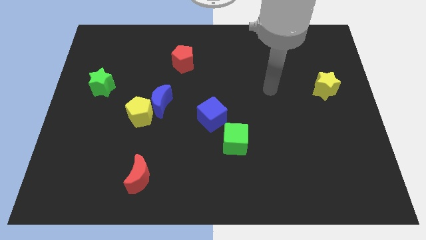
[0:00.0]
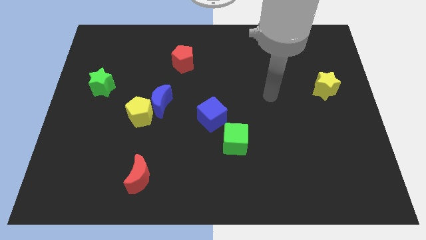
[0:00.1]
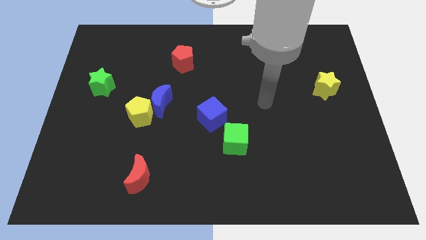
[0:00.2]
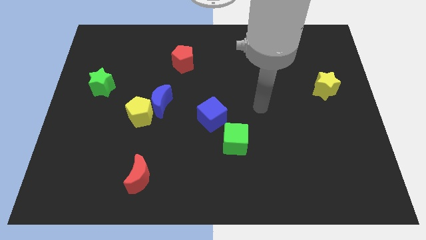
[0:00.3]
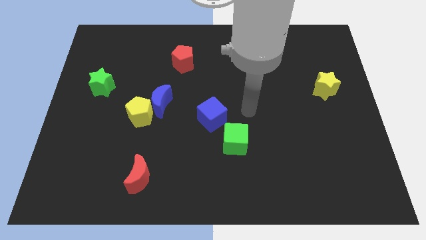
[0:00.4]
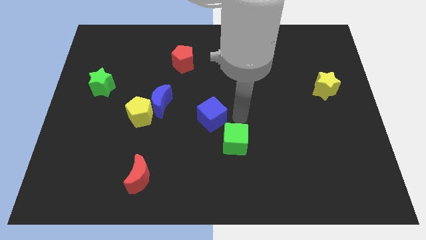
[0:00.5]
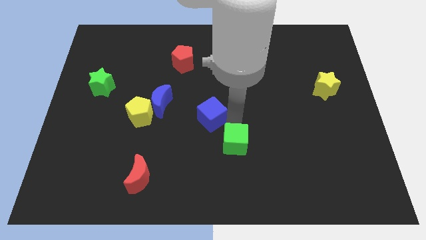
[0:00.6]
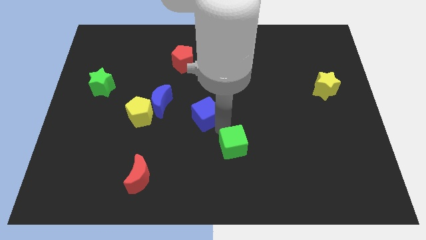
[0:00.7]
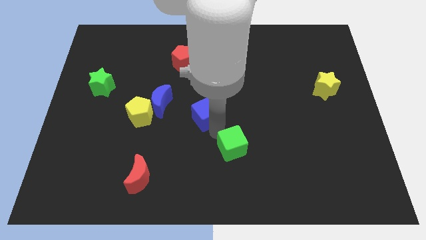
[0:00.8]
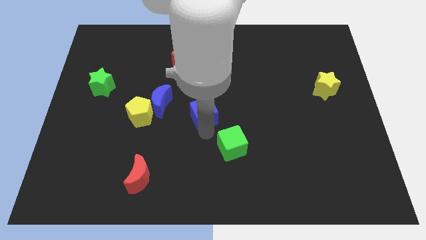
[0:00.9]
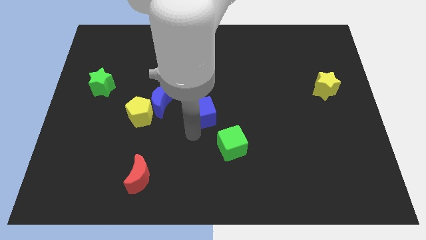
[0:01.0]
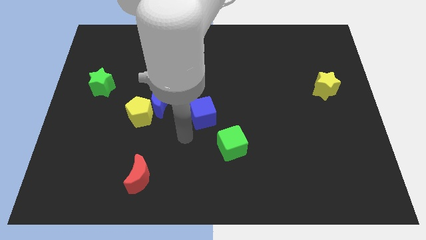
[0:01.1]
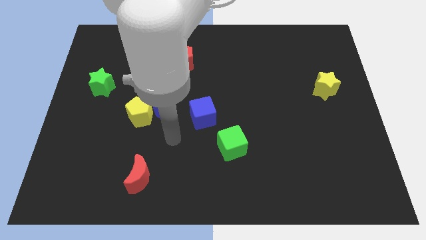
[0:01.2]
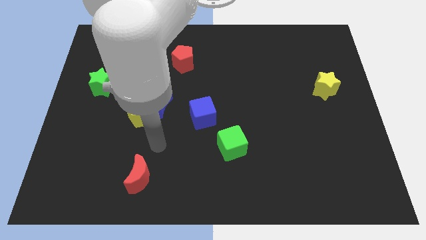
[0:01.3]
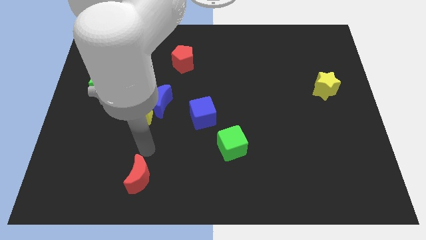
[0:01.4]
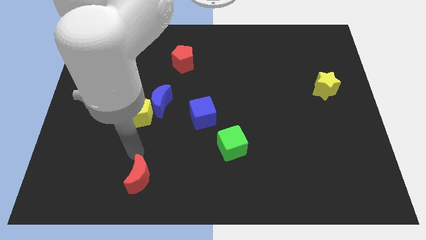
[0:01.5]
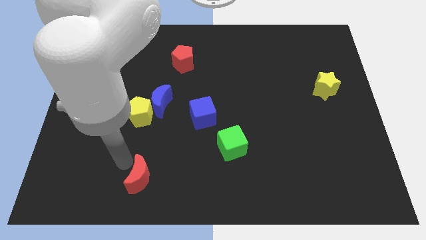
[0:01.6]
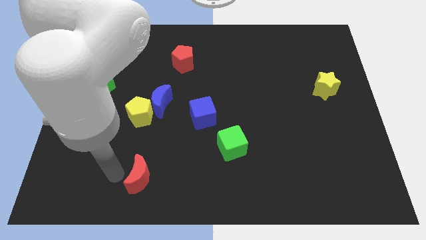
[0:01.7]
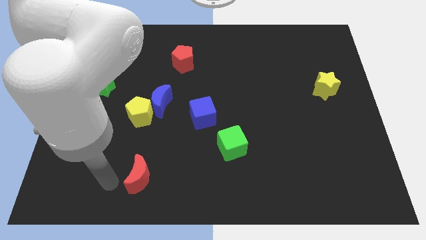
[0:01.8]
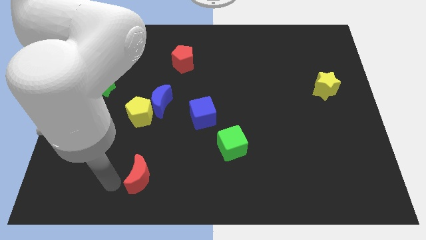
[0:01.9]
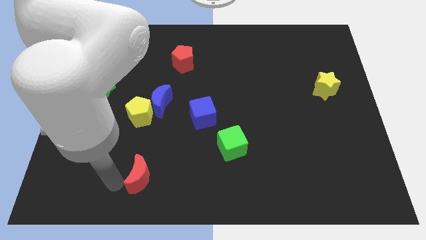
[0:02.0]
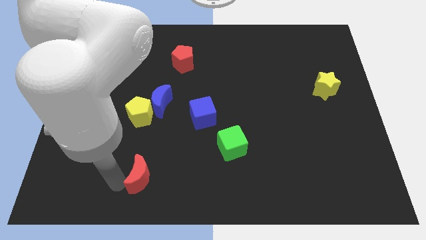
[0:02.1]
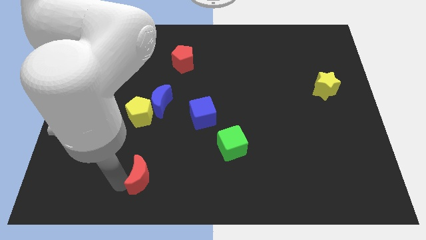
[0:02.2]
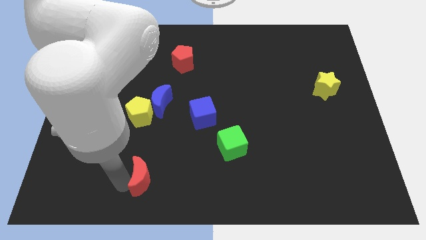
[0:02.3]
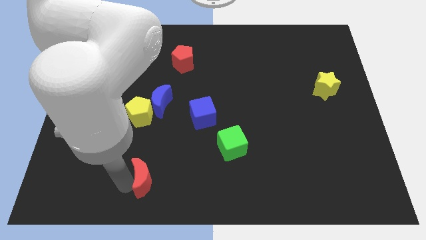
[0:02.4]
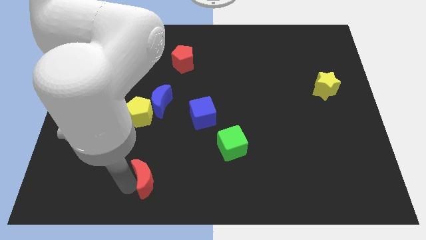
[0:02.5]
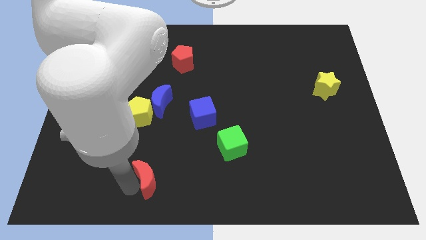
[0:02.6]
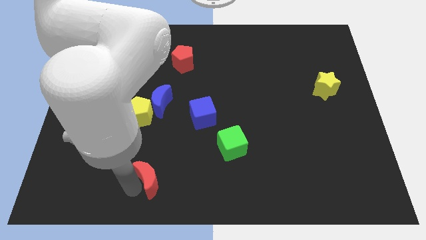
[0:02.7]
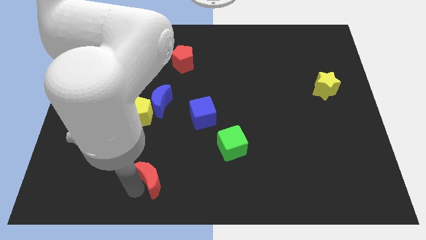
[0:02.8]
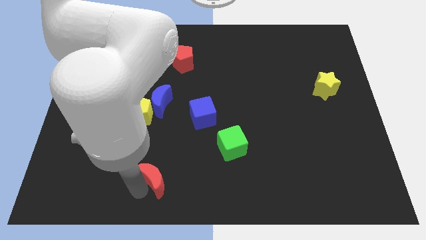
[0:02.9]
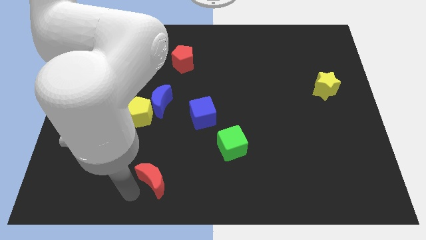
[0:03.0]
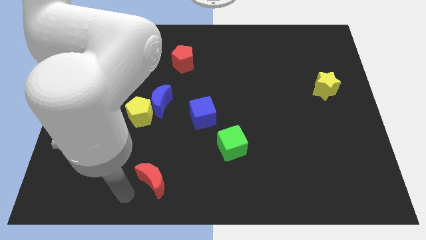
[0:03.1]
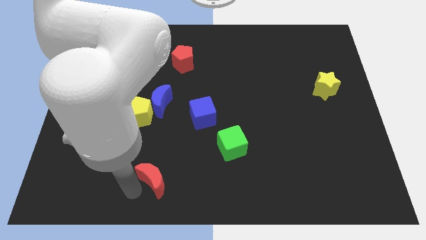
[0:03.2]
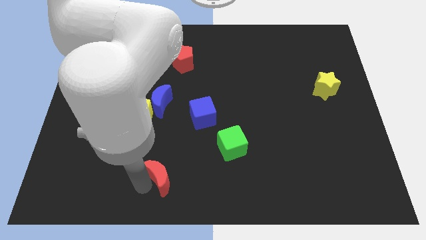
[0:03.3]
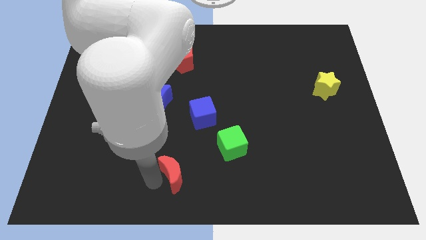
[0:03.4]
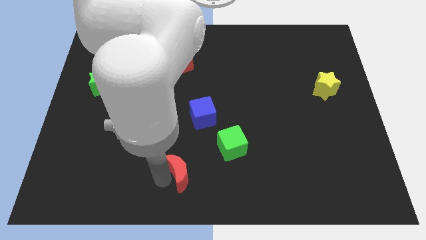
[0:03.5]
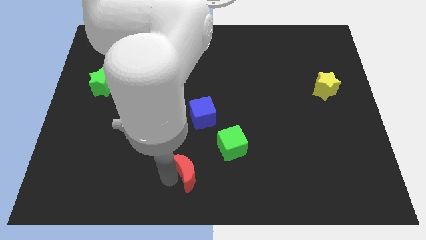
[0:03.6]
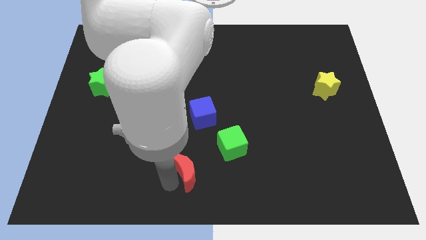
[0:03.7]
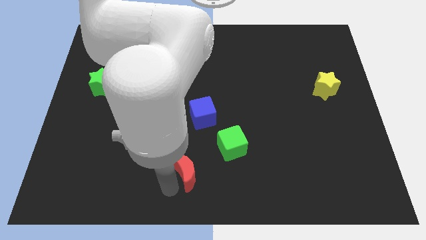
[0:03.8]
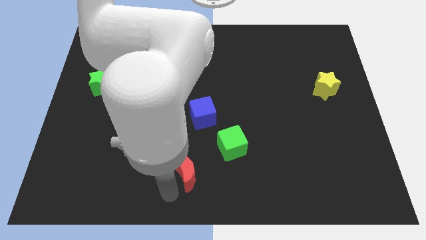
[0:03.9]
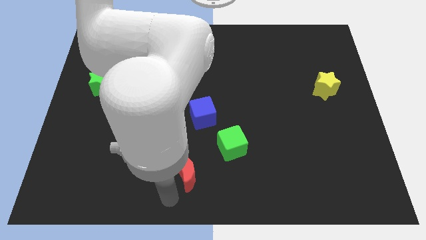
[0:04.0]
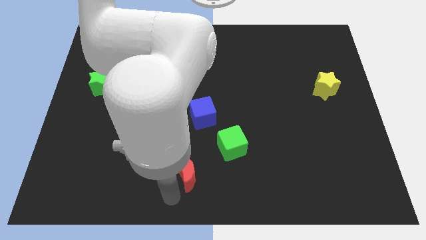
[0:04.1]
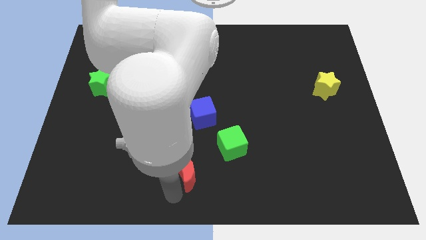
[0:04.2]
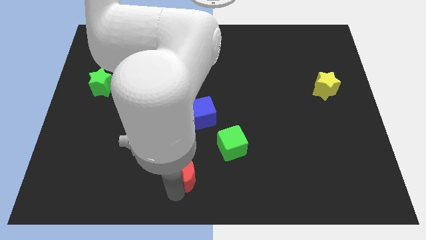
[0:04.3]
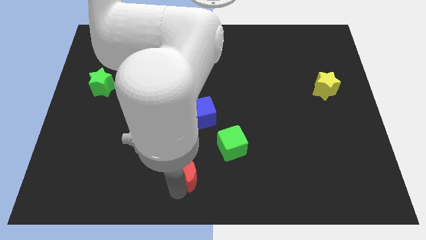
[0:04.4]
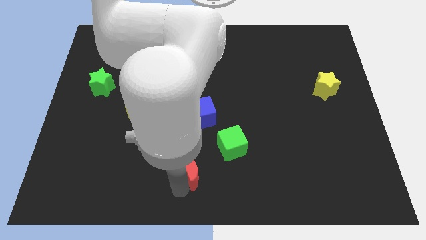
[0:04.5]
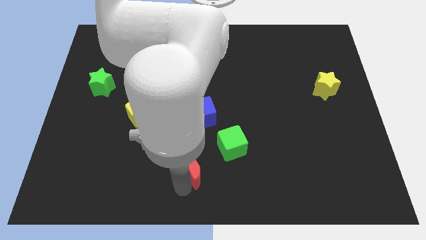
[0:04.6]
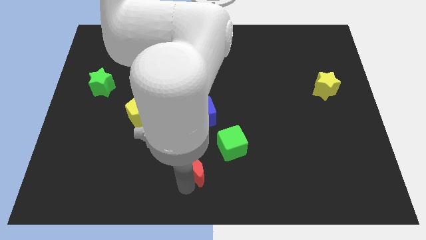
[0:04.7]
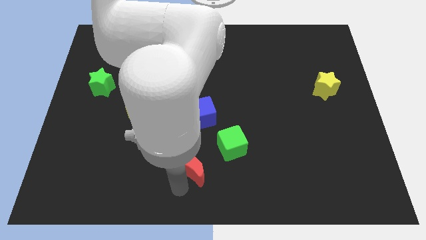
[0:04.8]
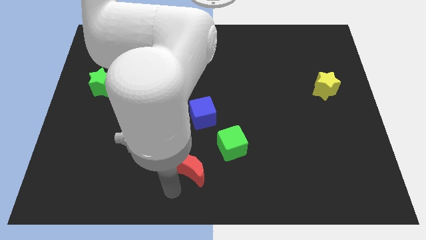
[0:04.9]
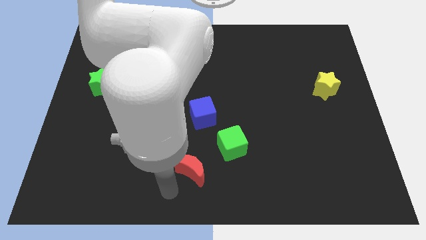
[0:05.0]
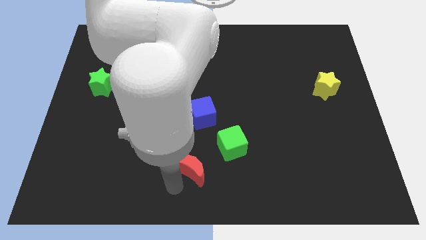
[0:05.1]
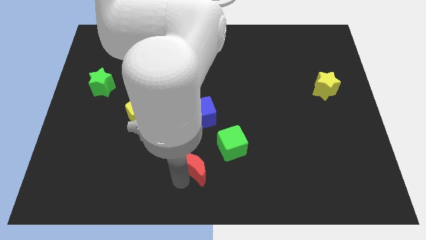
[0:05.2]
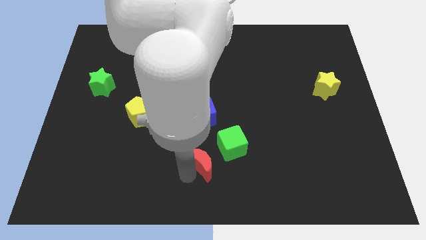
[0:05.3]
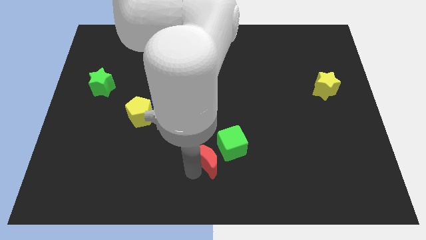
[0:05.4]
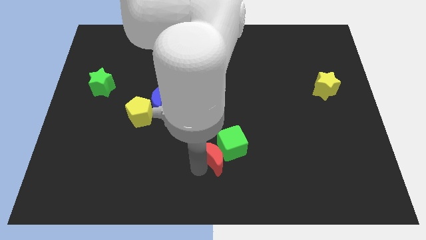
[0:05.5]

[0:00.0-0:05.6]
put the red moon to the green cube

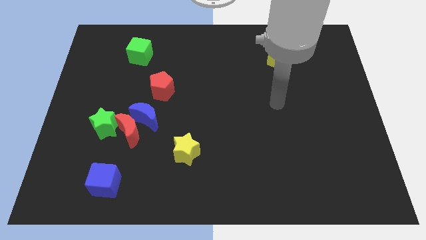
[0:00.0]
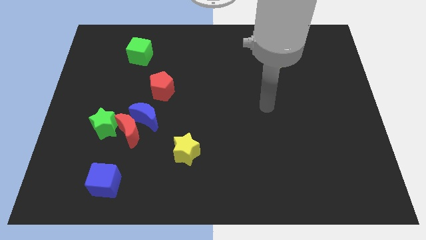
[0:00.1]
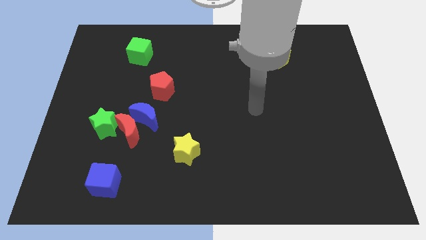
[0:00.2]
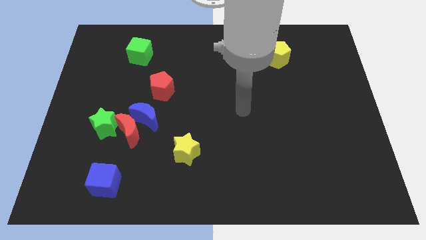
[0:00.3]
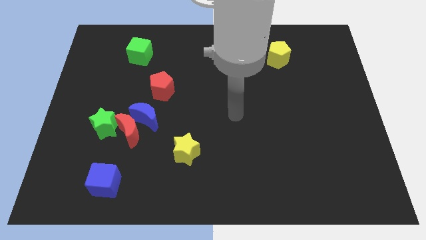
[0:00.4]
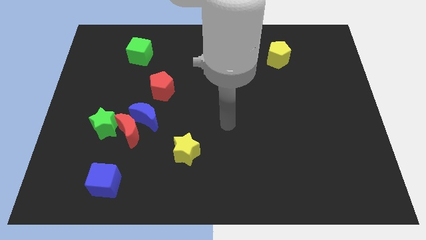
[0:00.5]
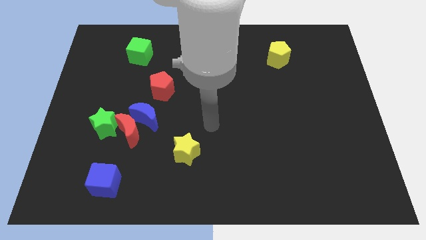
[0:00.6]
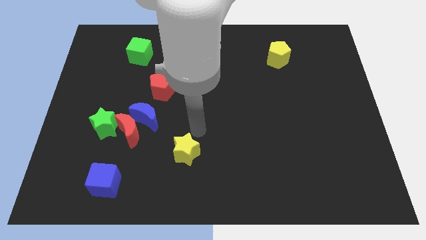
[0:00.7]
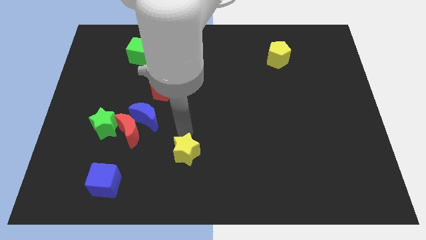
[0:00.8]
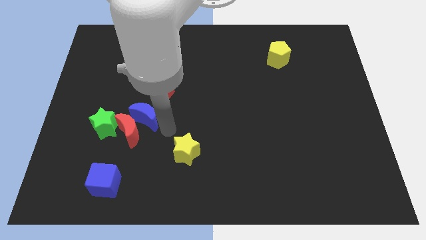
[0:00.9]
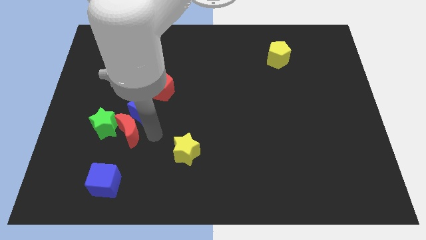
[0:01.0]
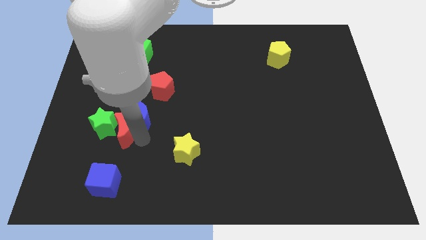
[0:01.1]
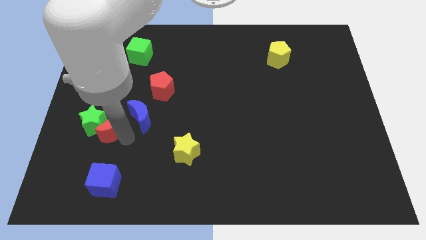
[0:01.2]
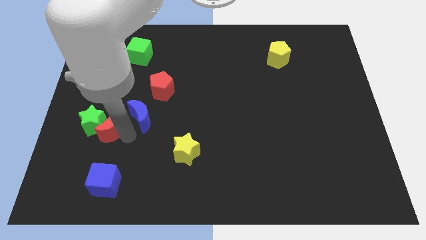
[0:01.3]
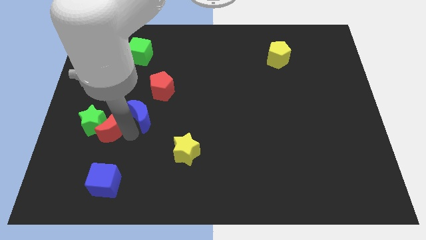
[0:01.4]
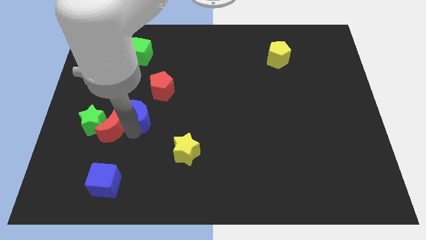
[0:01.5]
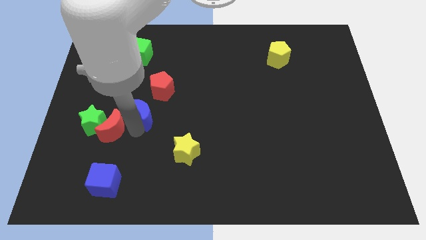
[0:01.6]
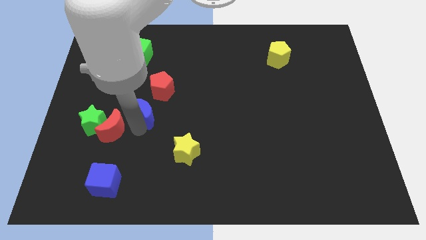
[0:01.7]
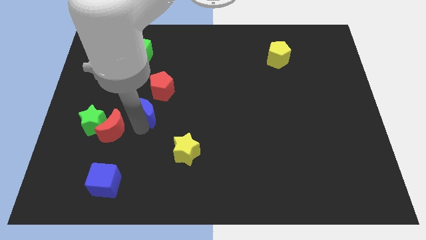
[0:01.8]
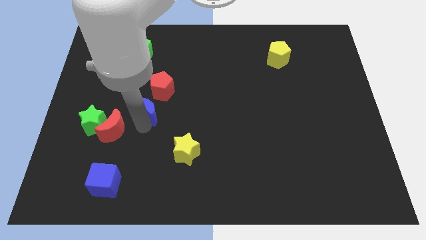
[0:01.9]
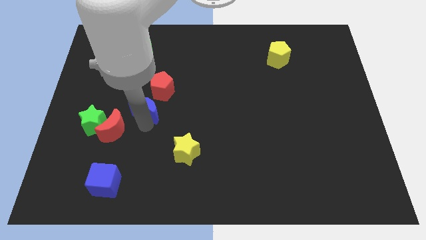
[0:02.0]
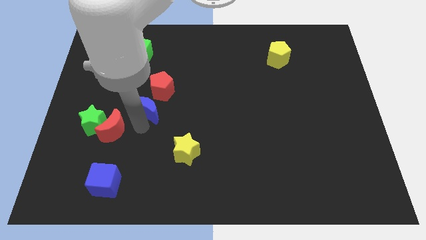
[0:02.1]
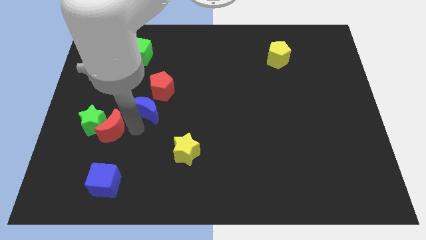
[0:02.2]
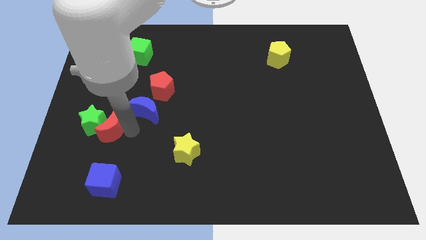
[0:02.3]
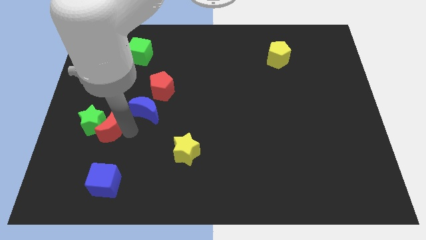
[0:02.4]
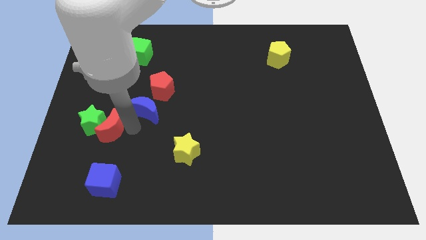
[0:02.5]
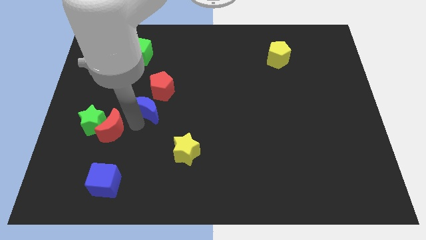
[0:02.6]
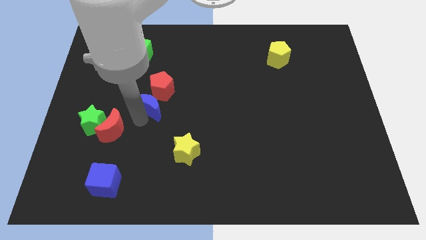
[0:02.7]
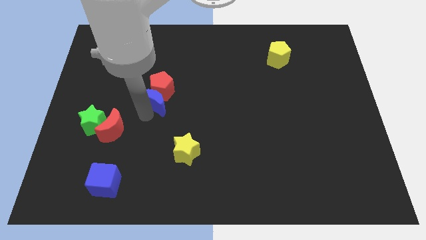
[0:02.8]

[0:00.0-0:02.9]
move the blue moon close to the red pentagon
